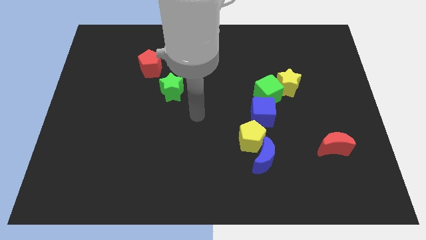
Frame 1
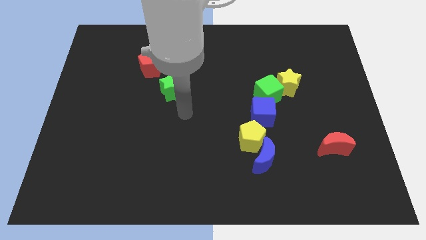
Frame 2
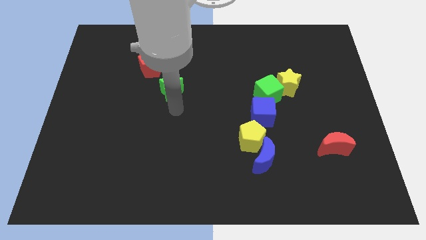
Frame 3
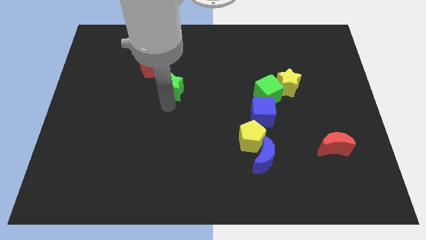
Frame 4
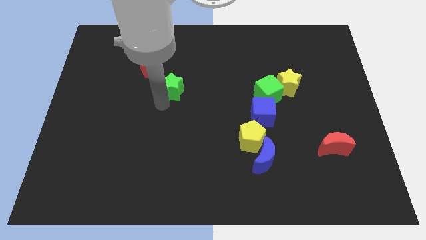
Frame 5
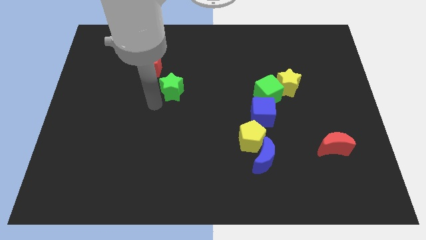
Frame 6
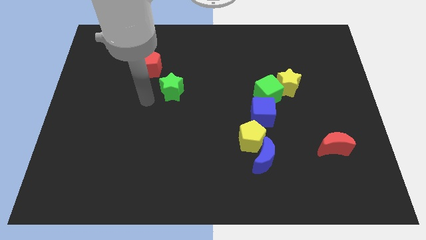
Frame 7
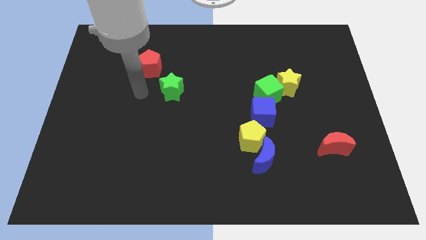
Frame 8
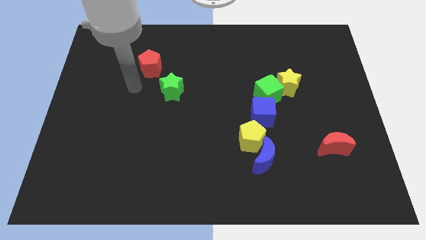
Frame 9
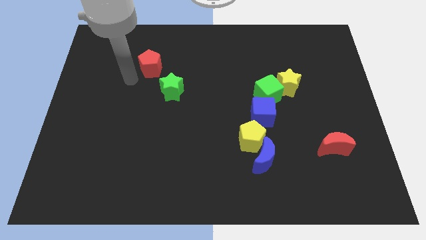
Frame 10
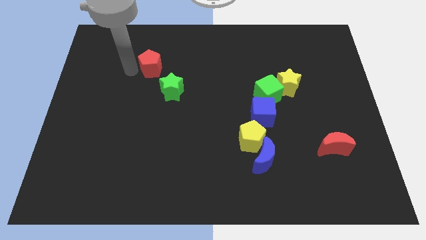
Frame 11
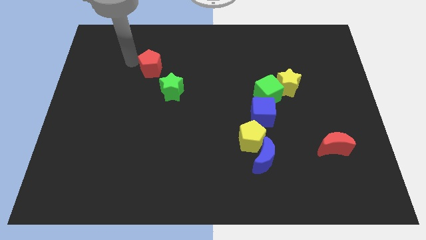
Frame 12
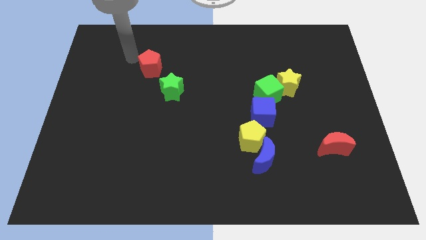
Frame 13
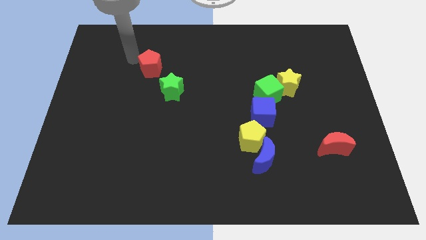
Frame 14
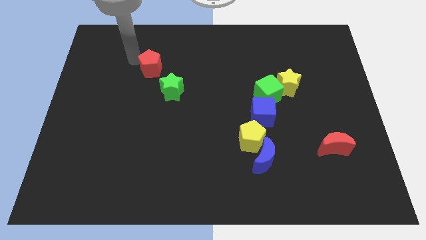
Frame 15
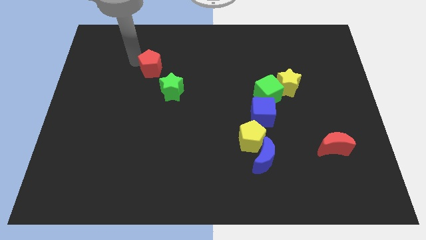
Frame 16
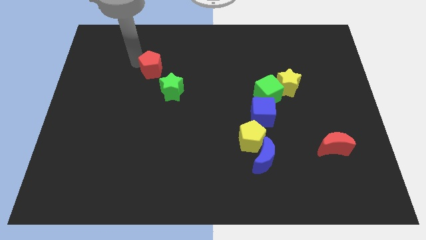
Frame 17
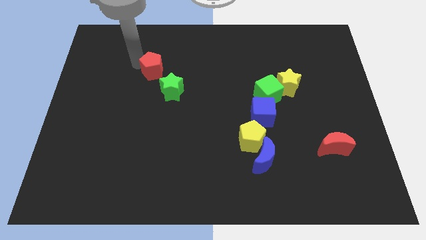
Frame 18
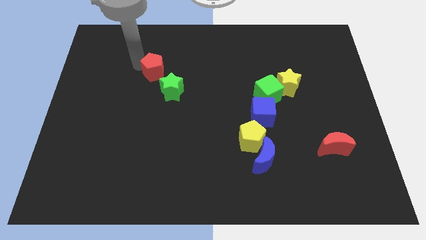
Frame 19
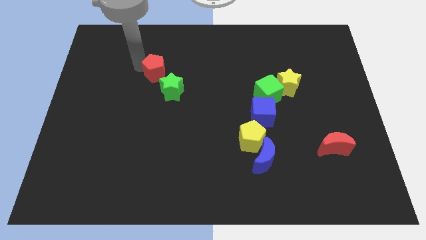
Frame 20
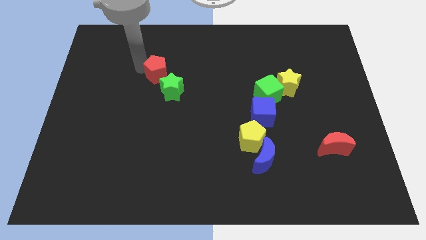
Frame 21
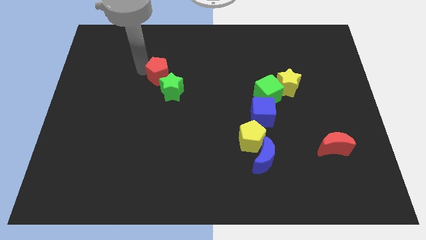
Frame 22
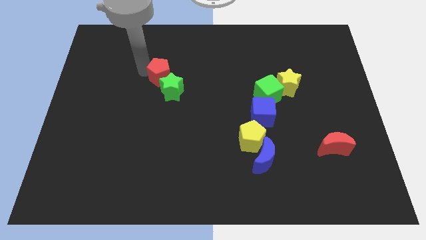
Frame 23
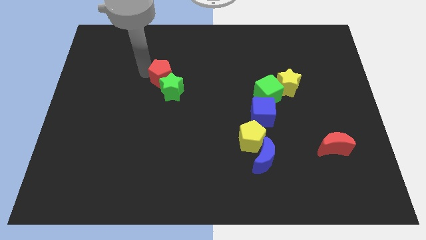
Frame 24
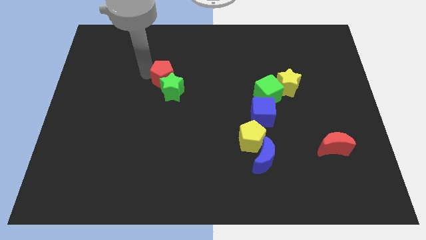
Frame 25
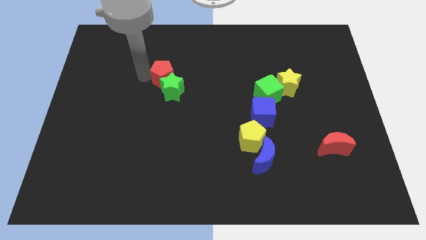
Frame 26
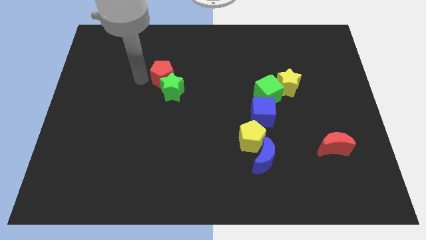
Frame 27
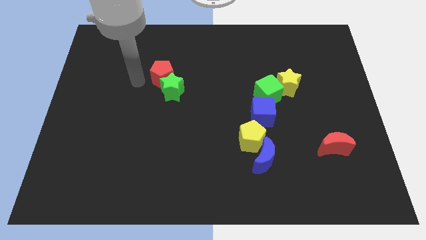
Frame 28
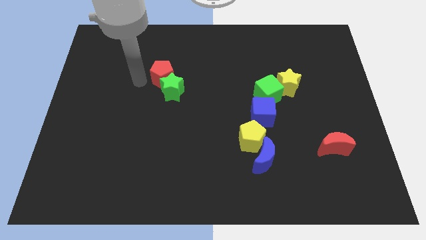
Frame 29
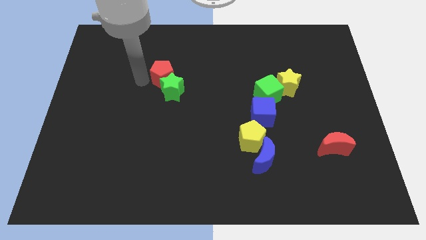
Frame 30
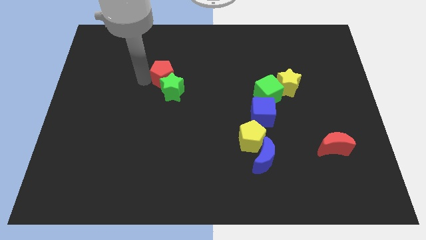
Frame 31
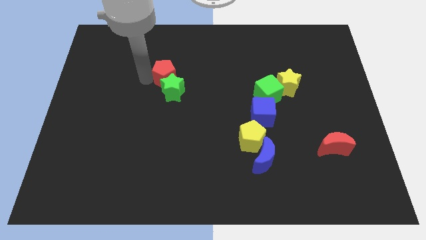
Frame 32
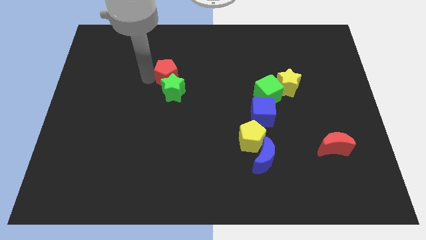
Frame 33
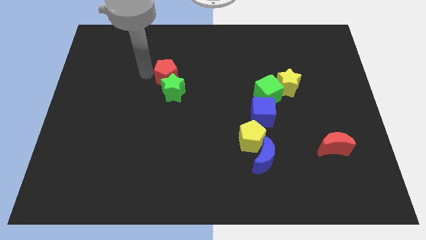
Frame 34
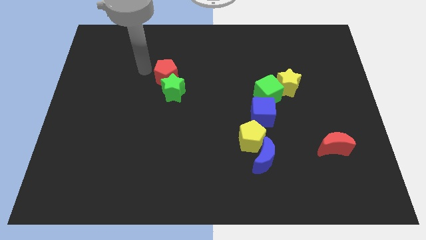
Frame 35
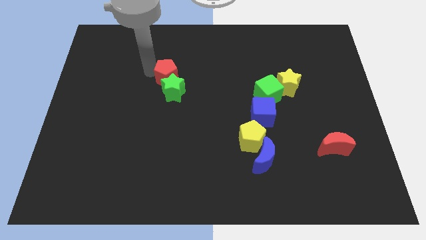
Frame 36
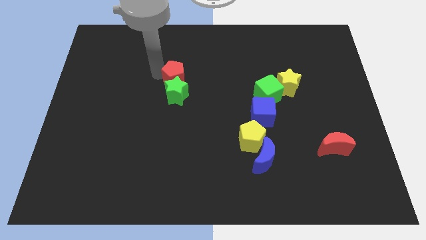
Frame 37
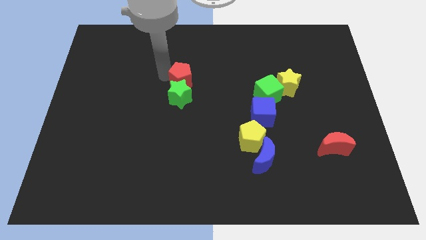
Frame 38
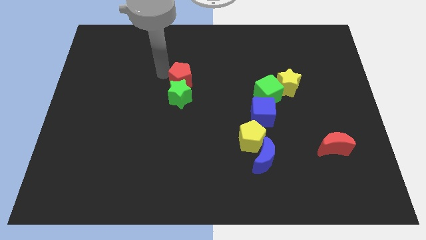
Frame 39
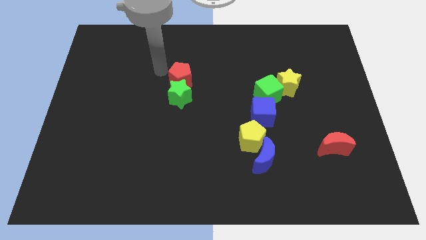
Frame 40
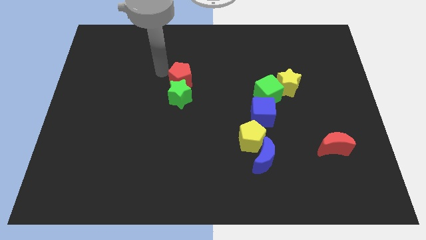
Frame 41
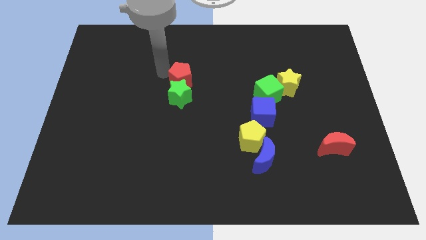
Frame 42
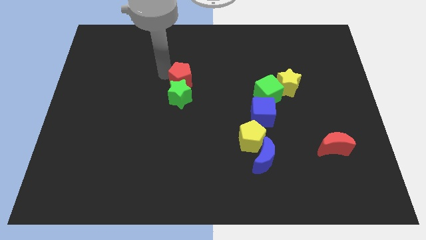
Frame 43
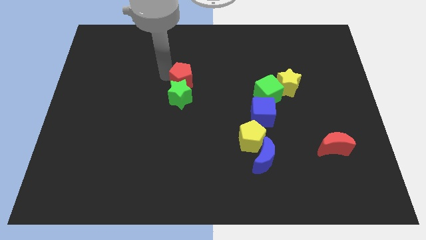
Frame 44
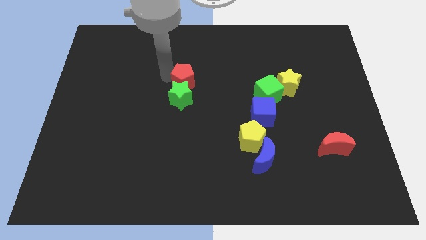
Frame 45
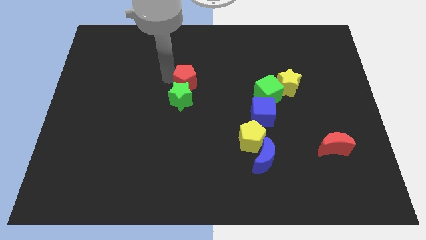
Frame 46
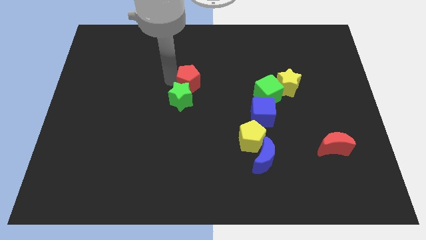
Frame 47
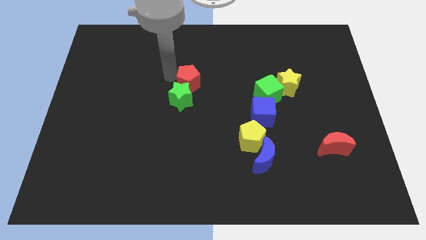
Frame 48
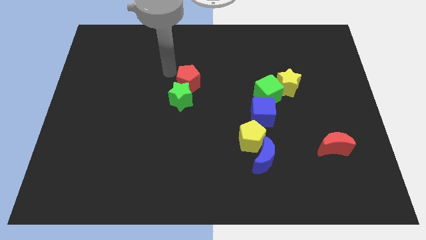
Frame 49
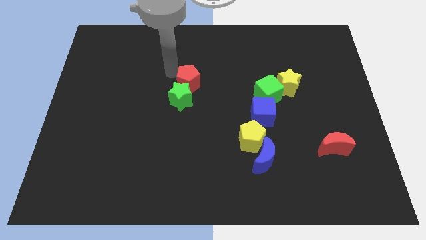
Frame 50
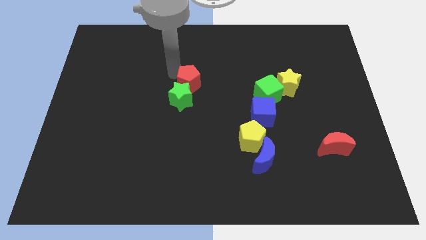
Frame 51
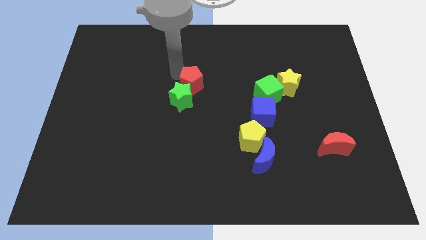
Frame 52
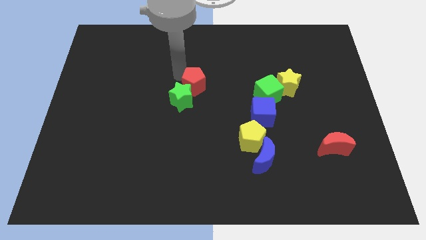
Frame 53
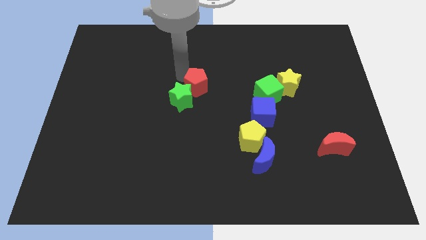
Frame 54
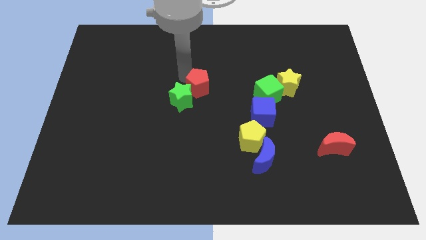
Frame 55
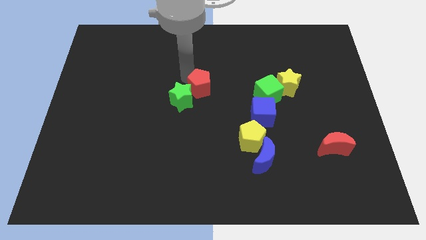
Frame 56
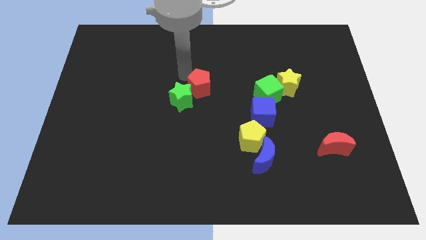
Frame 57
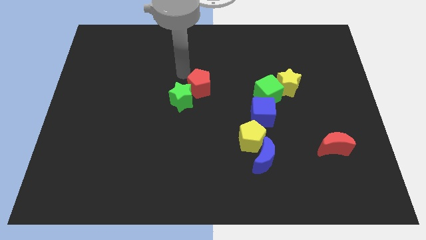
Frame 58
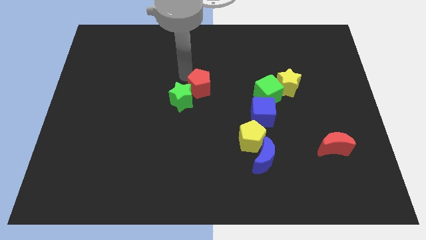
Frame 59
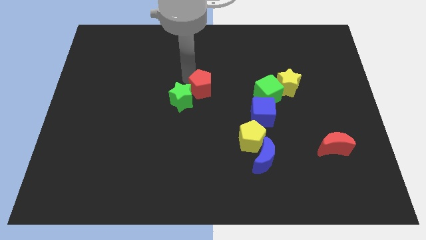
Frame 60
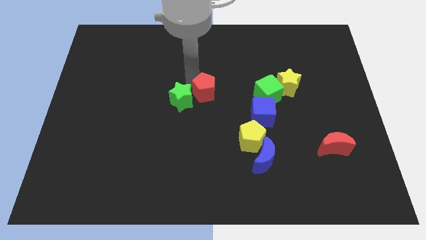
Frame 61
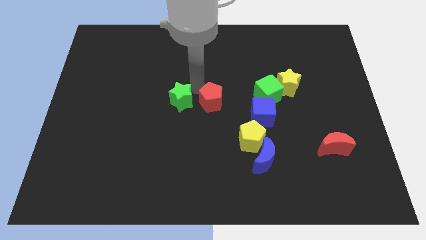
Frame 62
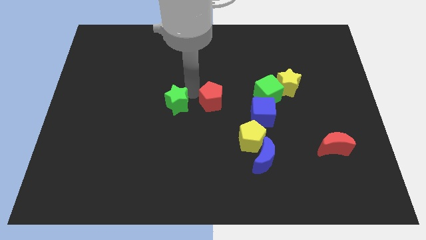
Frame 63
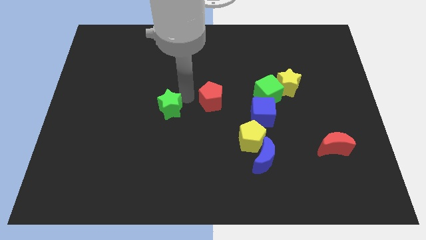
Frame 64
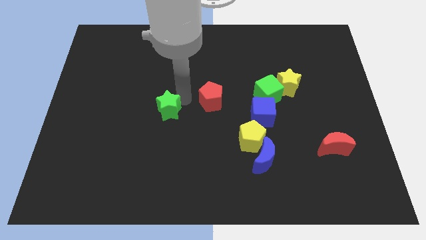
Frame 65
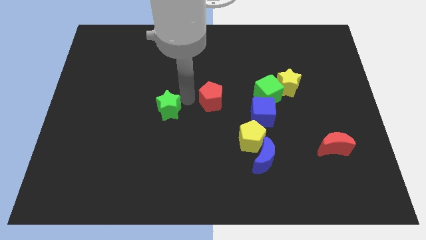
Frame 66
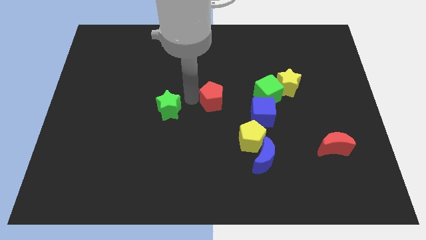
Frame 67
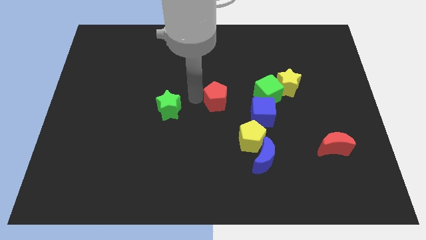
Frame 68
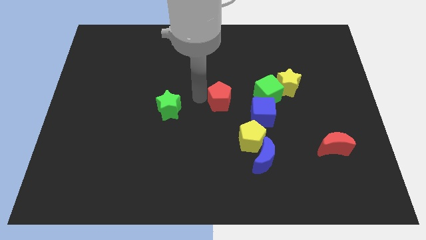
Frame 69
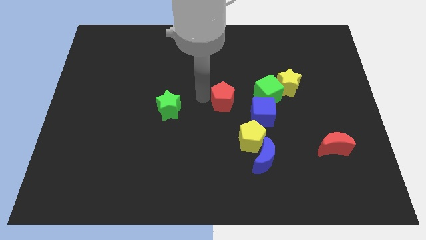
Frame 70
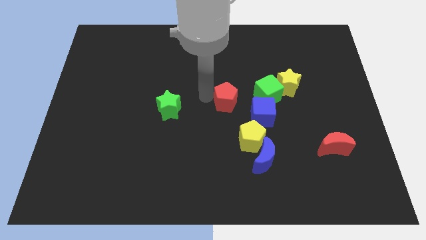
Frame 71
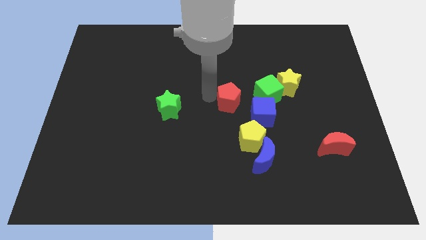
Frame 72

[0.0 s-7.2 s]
slide the red pentagon above the yellow pentagon
